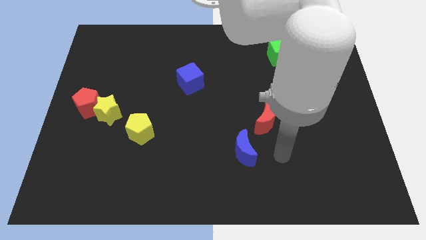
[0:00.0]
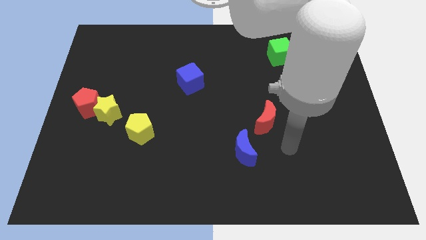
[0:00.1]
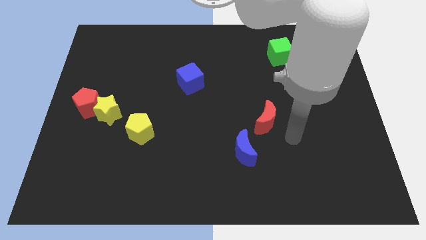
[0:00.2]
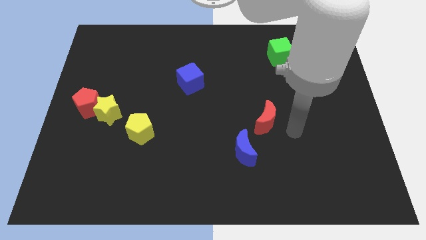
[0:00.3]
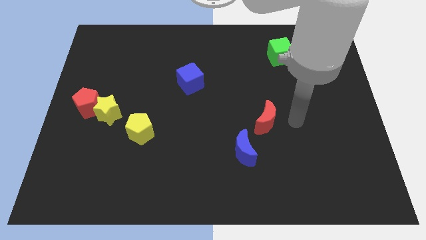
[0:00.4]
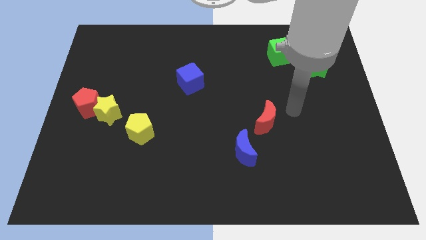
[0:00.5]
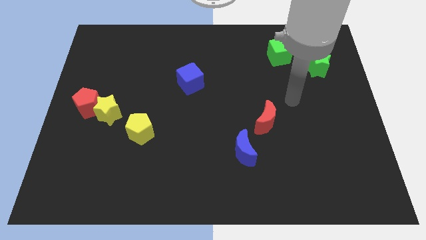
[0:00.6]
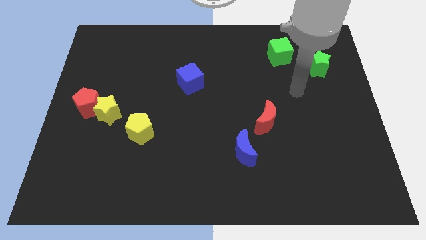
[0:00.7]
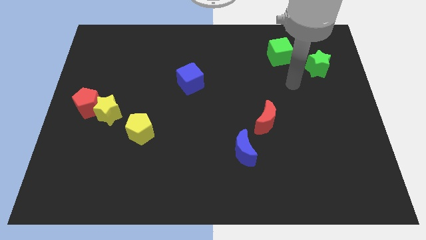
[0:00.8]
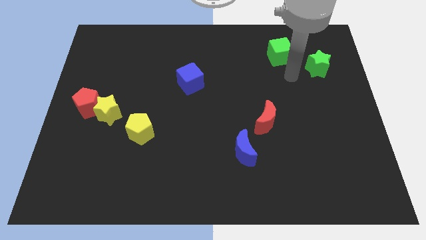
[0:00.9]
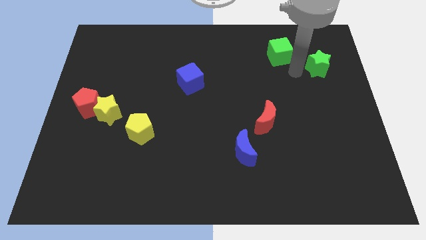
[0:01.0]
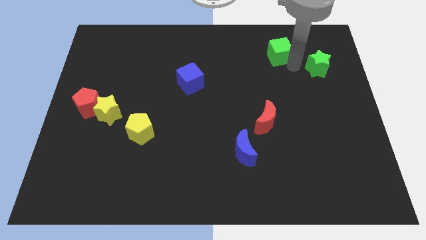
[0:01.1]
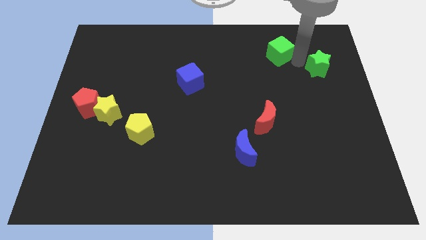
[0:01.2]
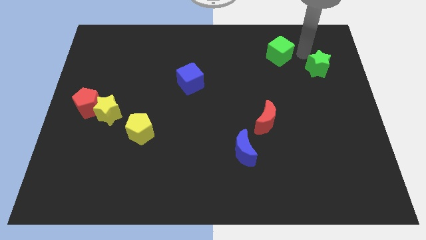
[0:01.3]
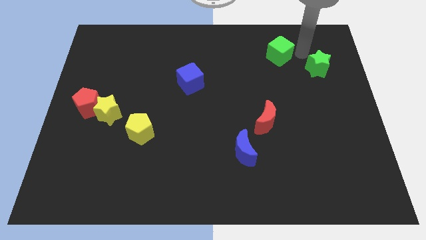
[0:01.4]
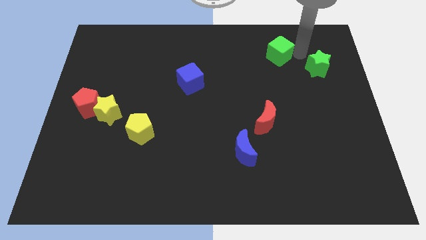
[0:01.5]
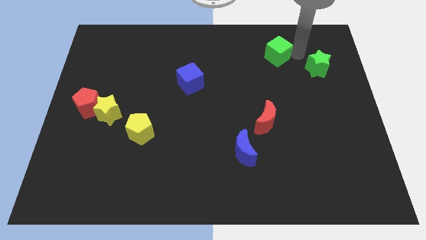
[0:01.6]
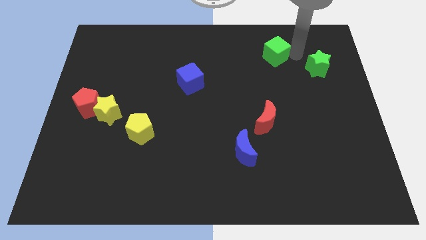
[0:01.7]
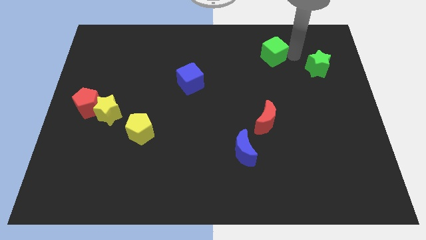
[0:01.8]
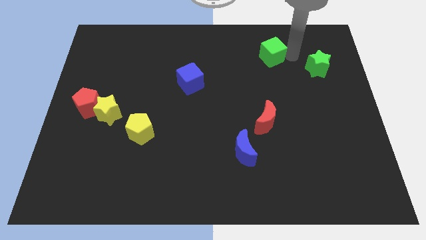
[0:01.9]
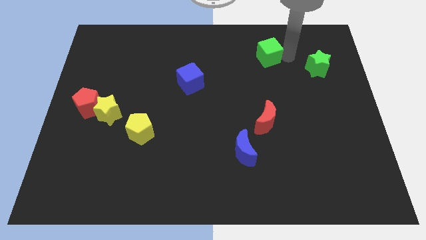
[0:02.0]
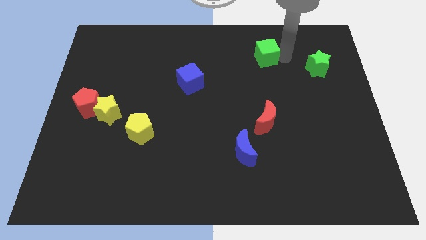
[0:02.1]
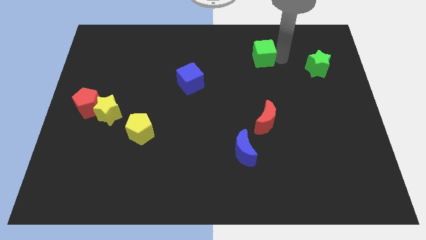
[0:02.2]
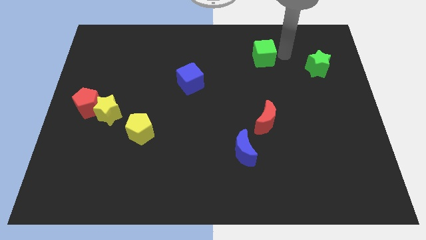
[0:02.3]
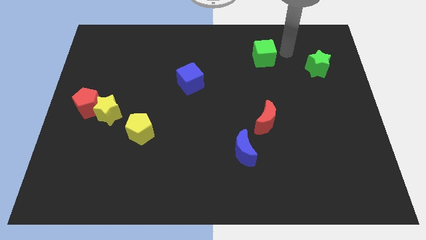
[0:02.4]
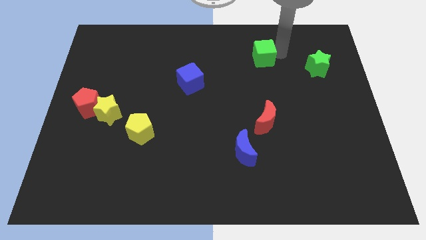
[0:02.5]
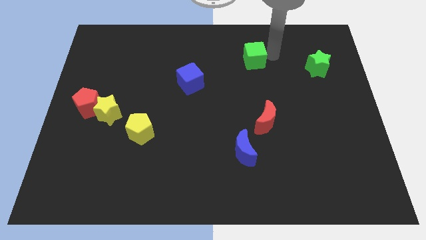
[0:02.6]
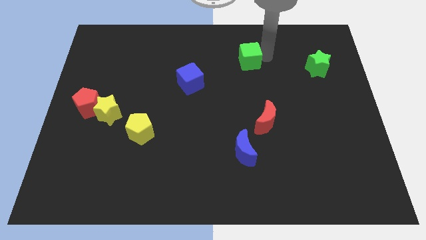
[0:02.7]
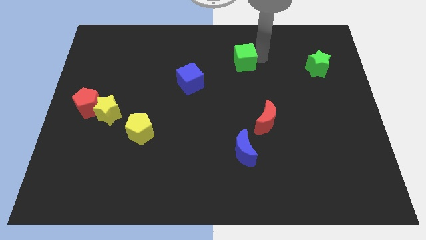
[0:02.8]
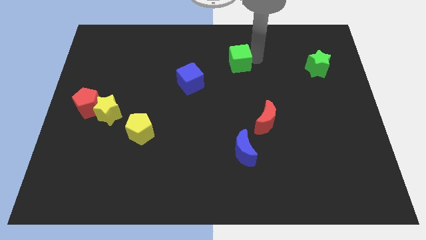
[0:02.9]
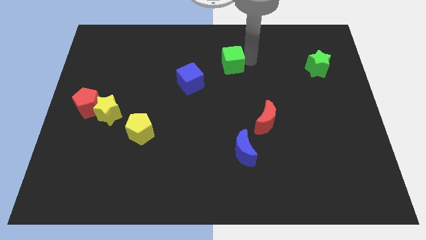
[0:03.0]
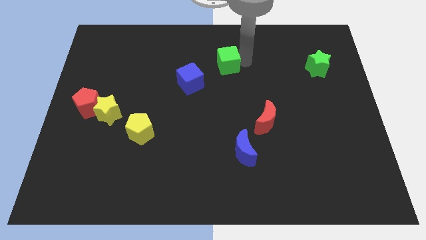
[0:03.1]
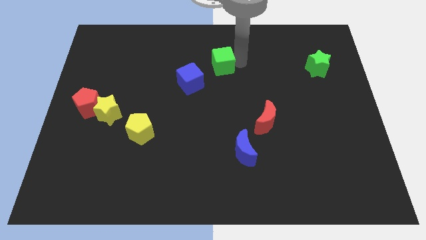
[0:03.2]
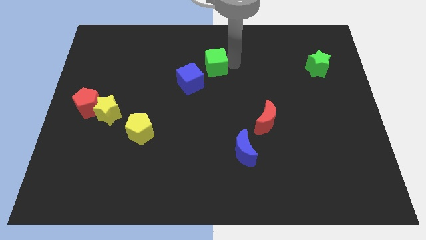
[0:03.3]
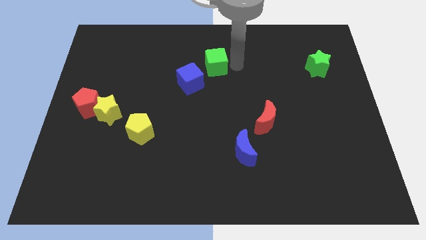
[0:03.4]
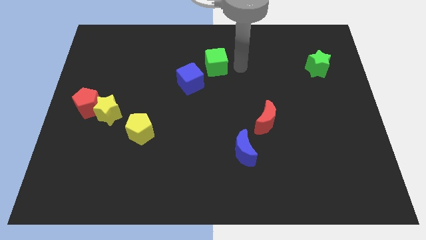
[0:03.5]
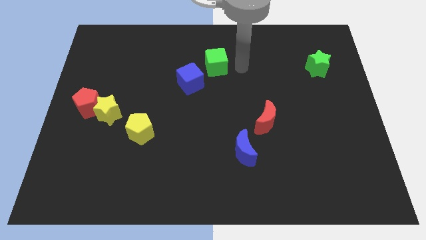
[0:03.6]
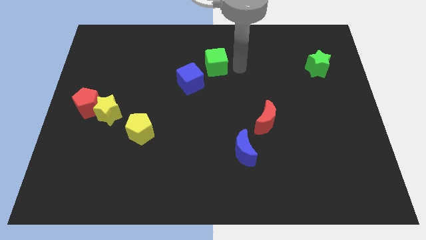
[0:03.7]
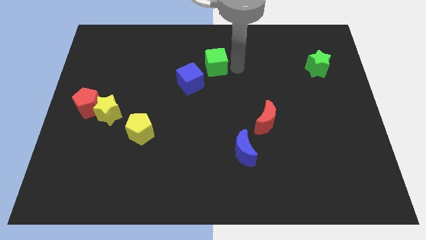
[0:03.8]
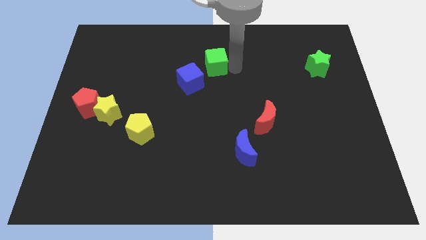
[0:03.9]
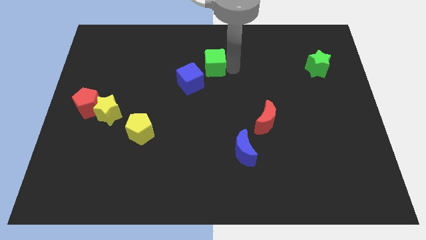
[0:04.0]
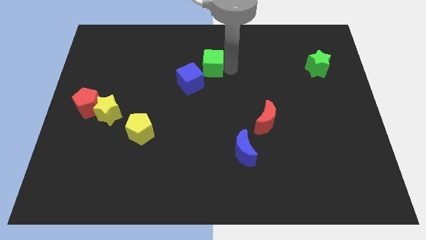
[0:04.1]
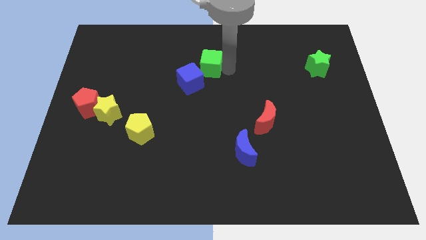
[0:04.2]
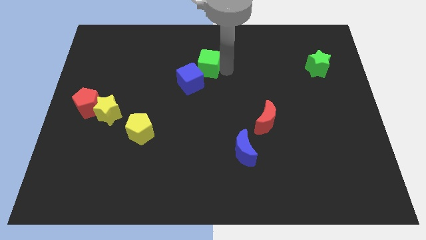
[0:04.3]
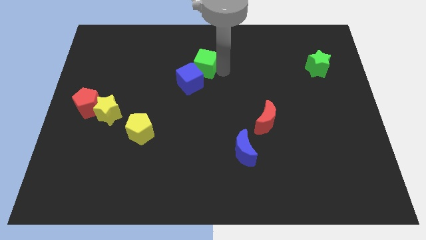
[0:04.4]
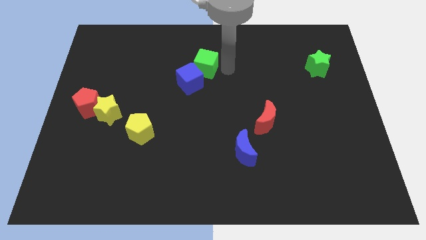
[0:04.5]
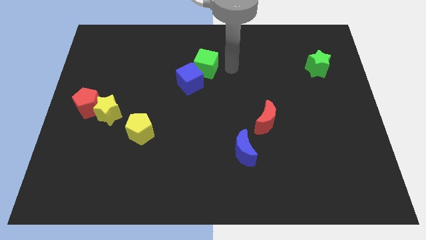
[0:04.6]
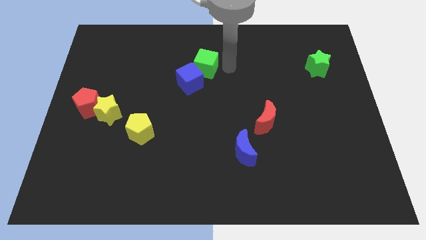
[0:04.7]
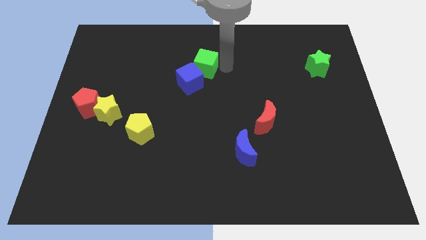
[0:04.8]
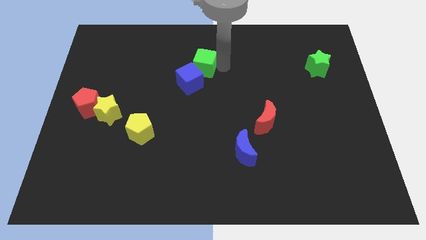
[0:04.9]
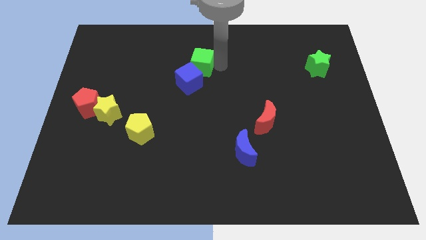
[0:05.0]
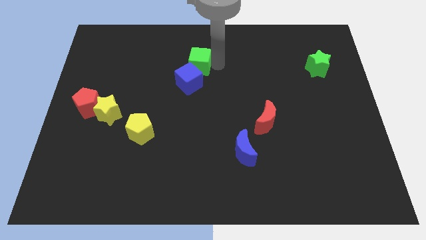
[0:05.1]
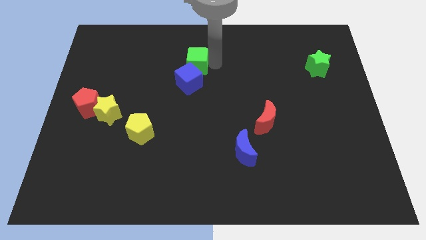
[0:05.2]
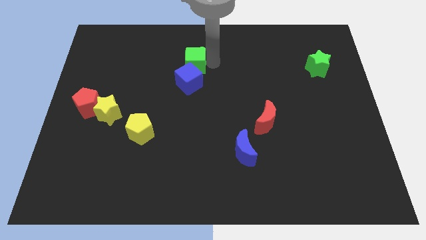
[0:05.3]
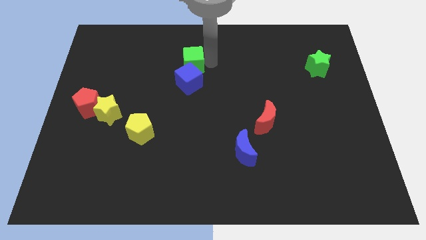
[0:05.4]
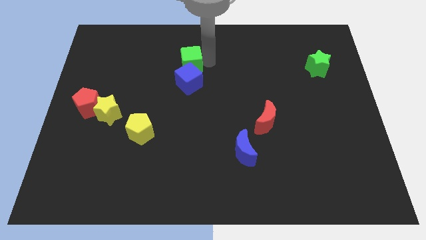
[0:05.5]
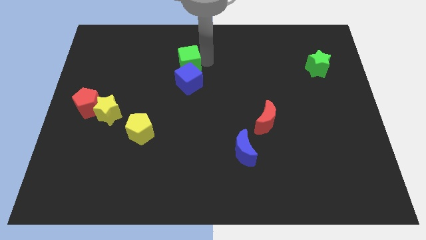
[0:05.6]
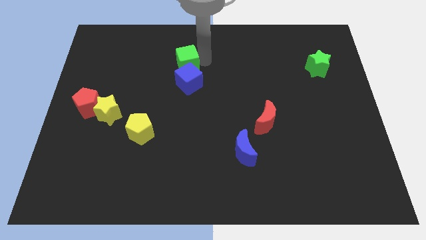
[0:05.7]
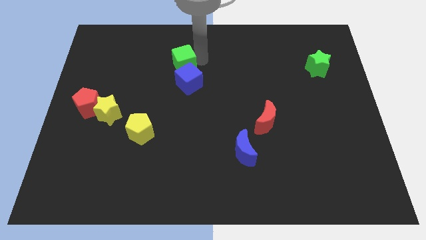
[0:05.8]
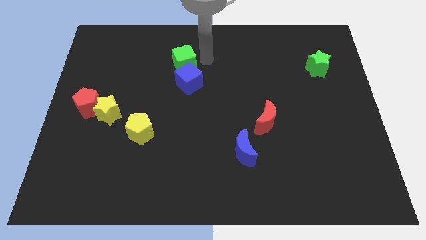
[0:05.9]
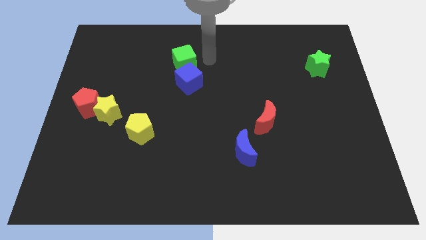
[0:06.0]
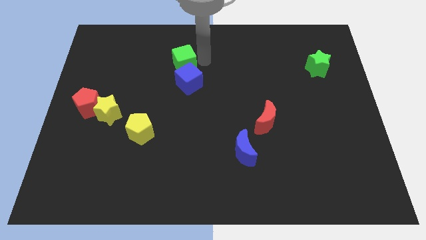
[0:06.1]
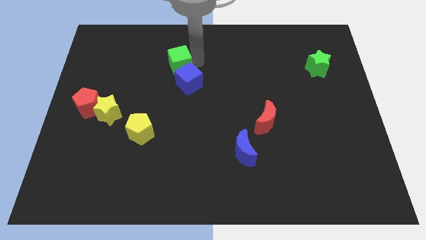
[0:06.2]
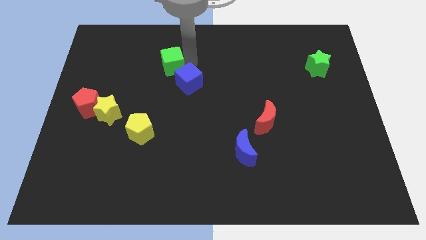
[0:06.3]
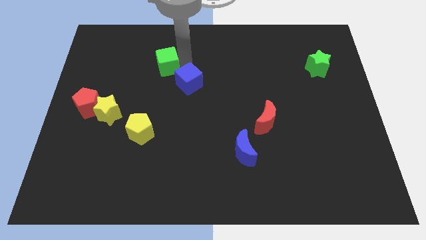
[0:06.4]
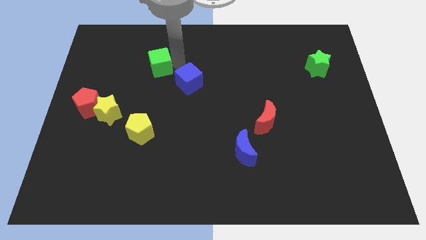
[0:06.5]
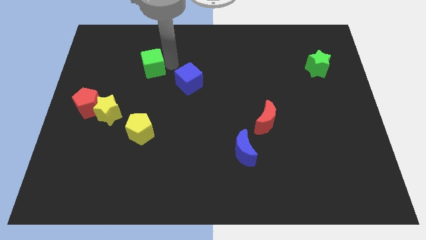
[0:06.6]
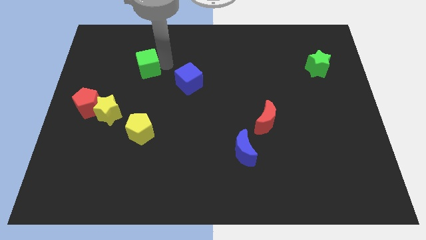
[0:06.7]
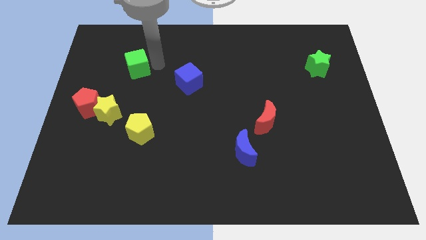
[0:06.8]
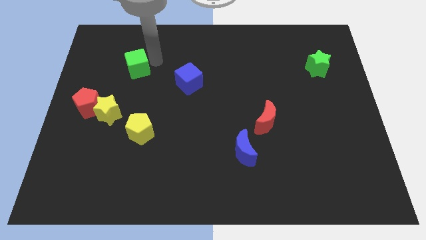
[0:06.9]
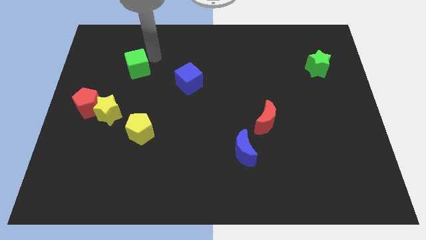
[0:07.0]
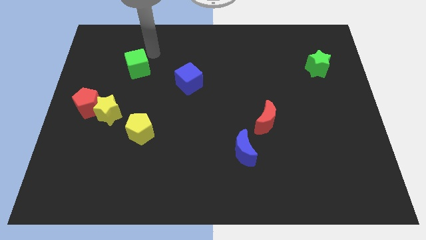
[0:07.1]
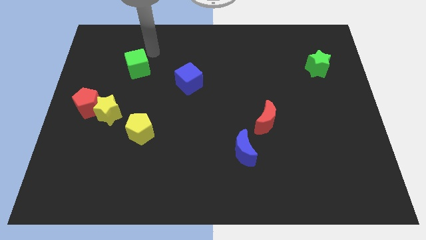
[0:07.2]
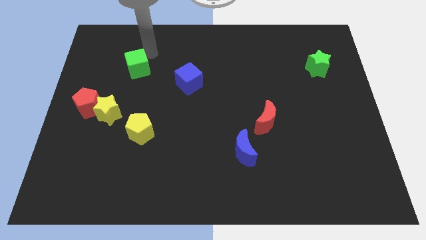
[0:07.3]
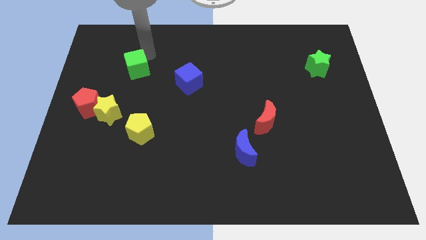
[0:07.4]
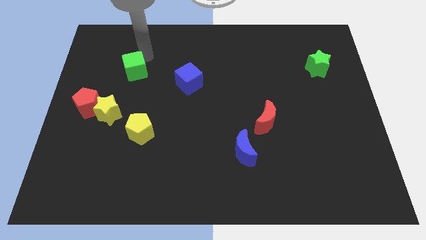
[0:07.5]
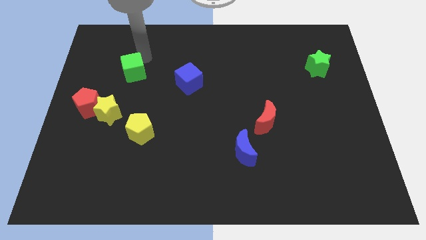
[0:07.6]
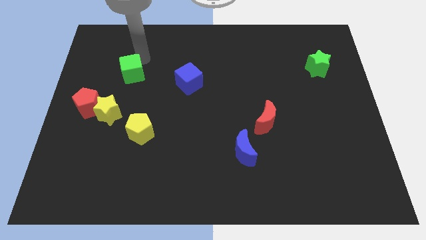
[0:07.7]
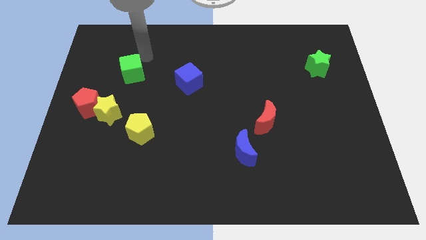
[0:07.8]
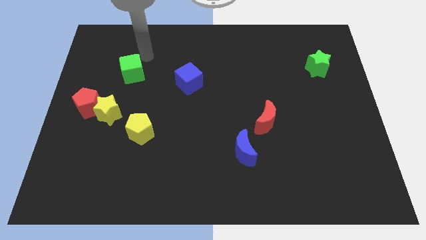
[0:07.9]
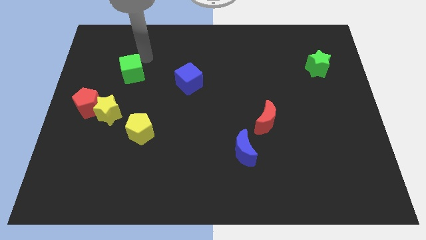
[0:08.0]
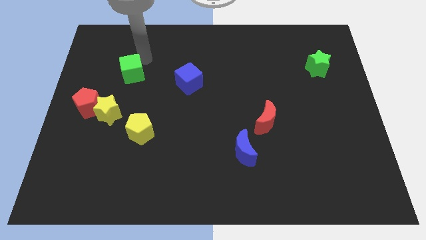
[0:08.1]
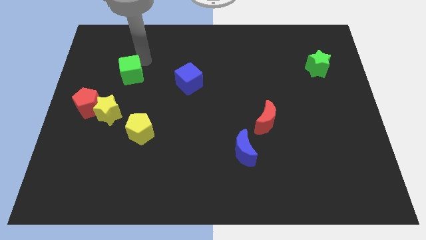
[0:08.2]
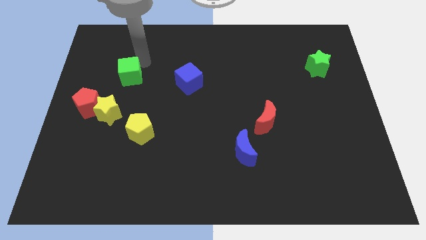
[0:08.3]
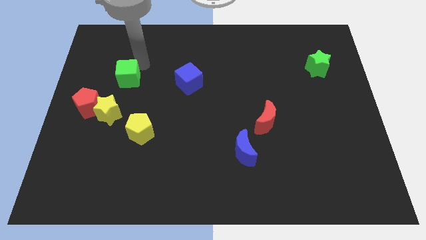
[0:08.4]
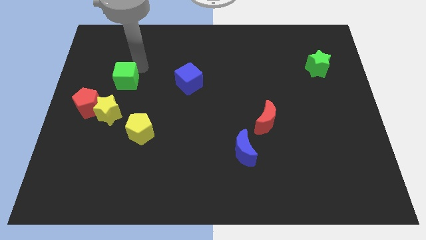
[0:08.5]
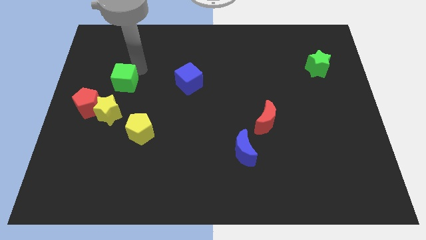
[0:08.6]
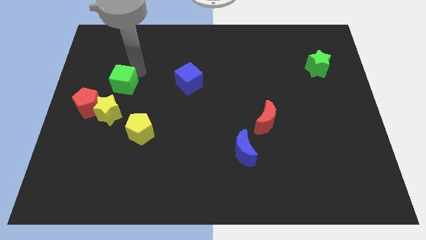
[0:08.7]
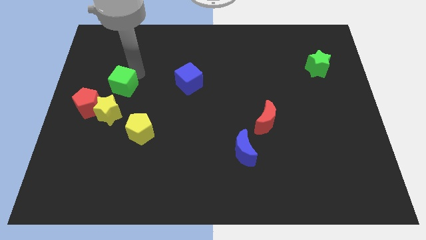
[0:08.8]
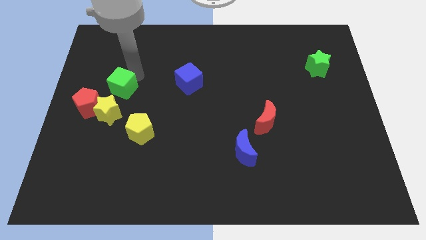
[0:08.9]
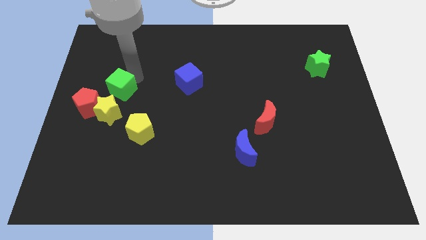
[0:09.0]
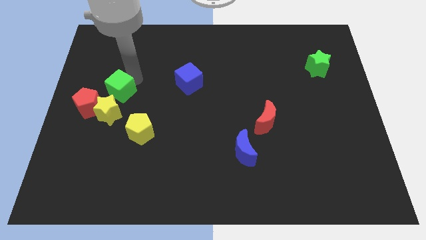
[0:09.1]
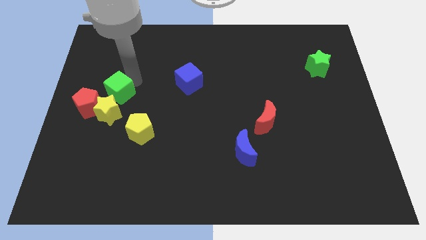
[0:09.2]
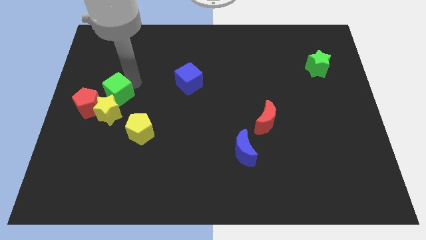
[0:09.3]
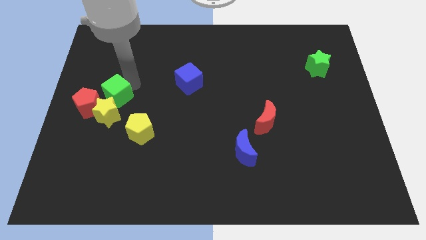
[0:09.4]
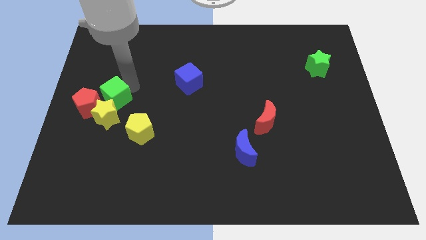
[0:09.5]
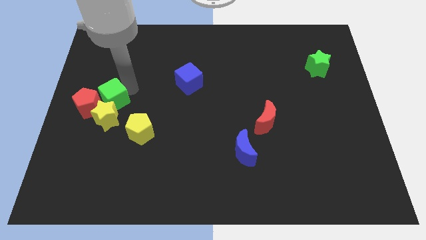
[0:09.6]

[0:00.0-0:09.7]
put the green cube close to the red pentagon
